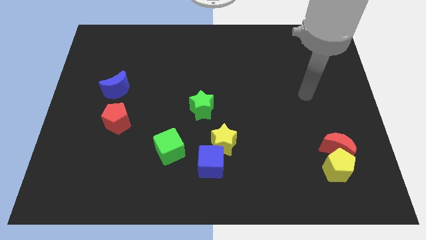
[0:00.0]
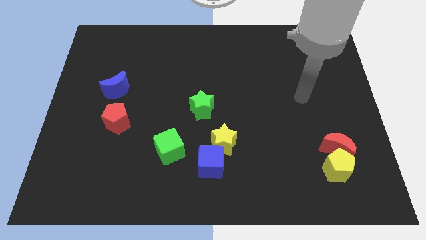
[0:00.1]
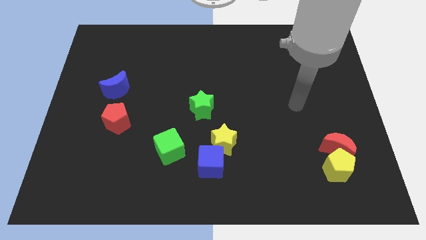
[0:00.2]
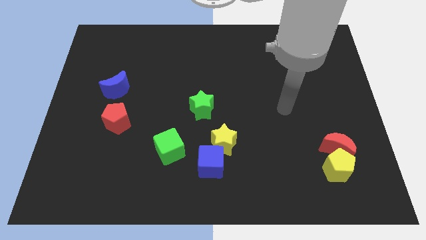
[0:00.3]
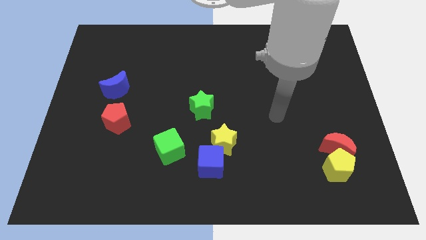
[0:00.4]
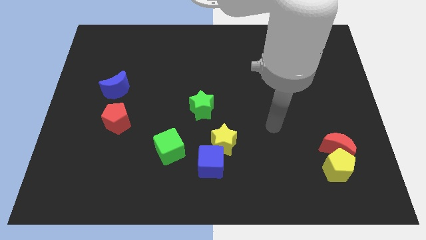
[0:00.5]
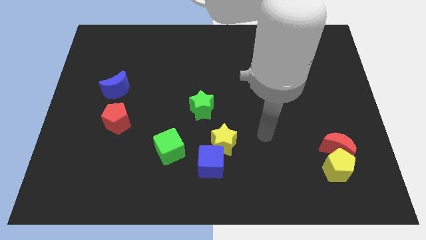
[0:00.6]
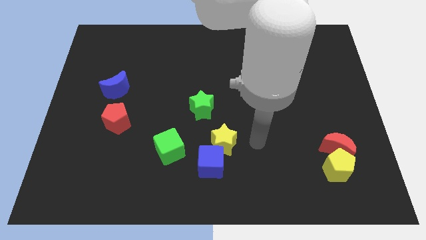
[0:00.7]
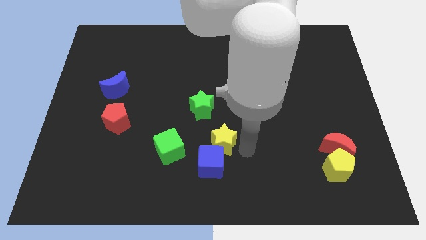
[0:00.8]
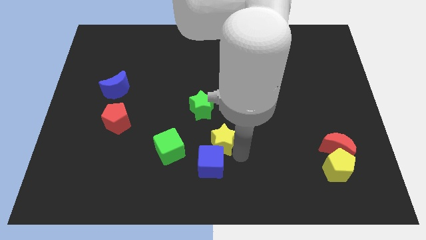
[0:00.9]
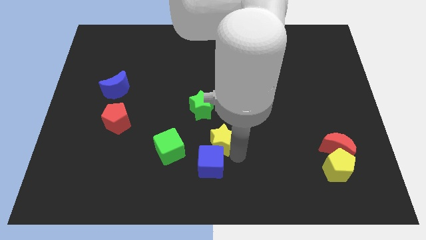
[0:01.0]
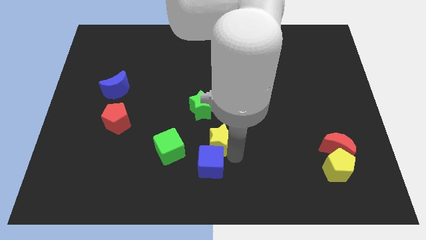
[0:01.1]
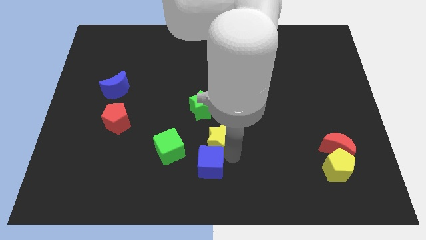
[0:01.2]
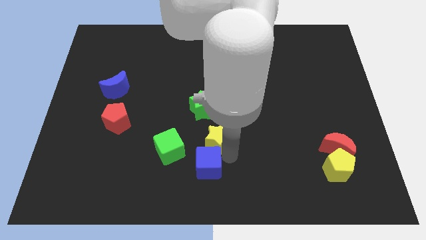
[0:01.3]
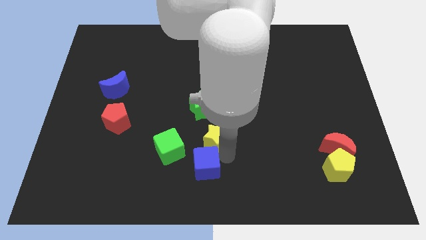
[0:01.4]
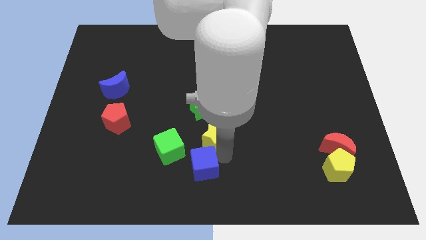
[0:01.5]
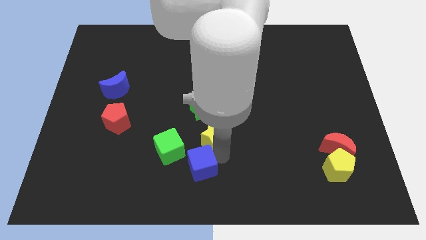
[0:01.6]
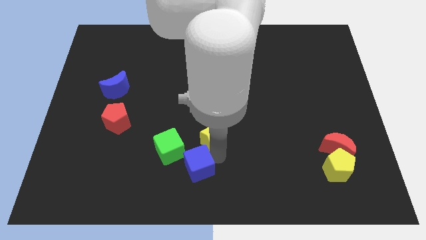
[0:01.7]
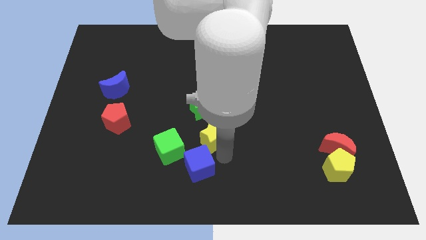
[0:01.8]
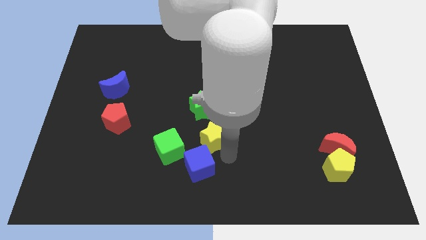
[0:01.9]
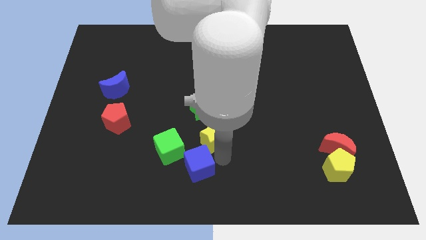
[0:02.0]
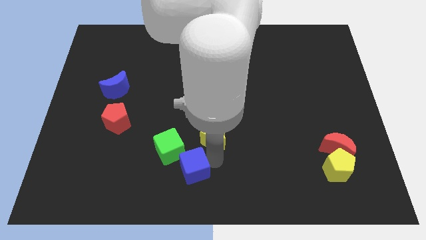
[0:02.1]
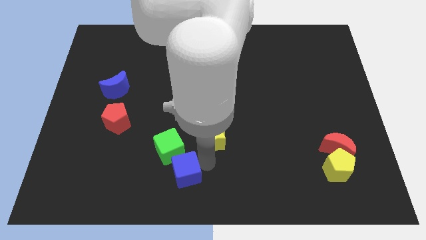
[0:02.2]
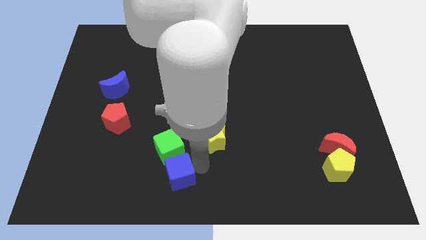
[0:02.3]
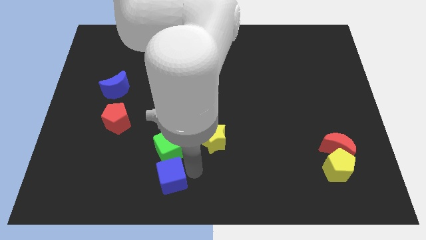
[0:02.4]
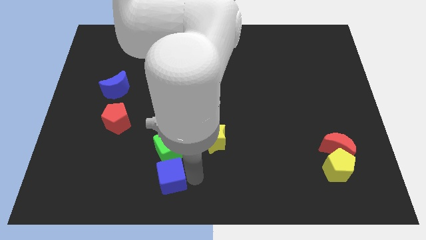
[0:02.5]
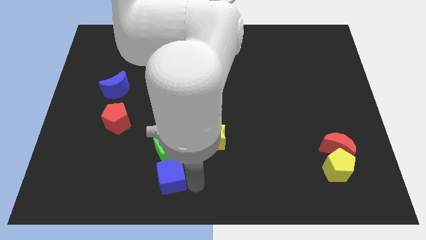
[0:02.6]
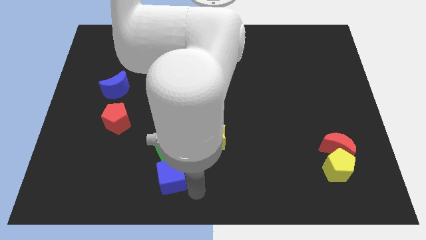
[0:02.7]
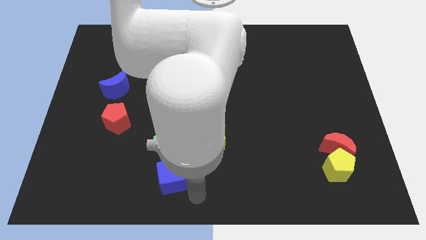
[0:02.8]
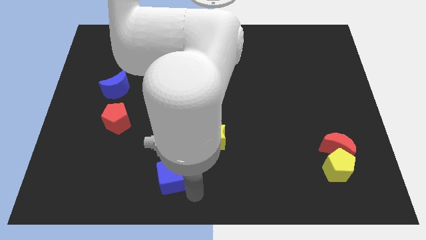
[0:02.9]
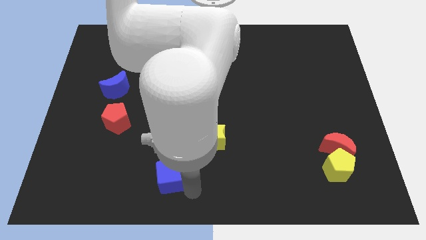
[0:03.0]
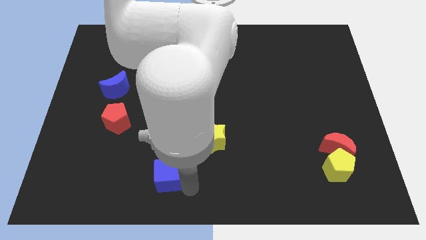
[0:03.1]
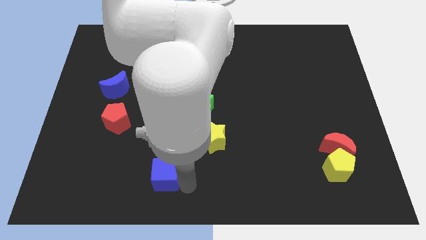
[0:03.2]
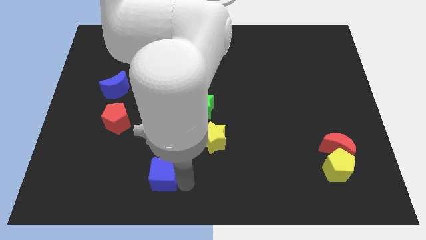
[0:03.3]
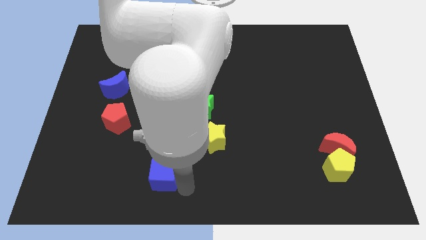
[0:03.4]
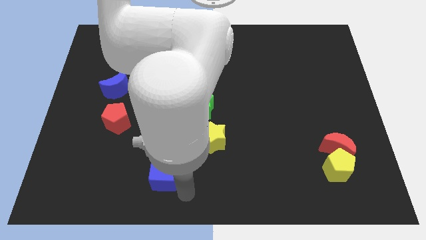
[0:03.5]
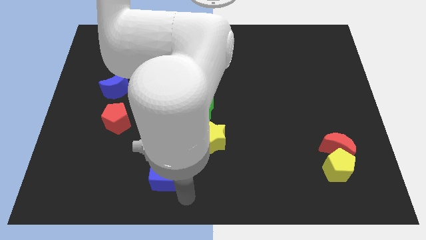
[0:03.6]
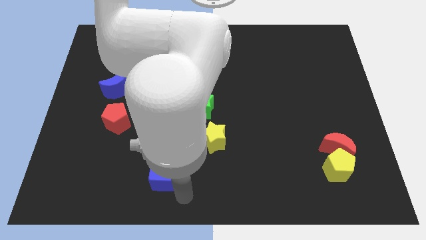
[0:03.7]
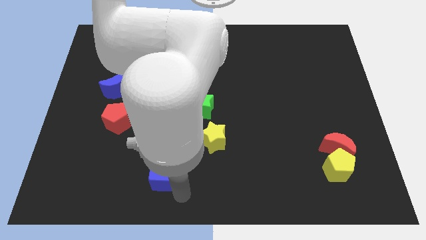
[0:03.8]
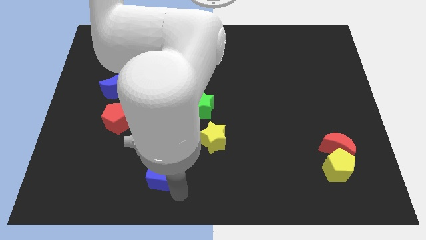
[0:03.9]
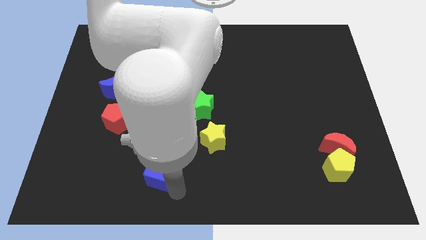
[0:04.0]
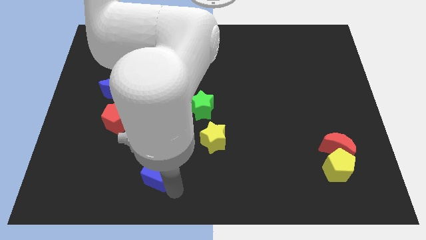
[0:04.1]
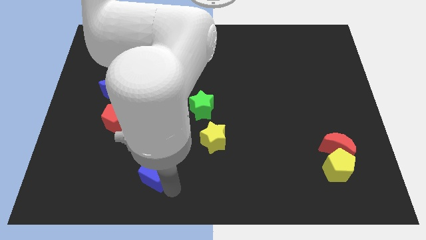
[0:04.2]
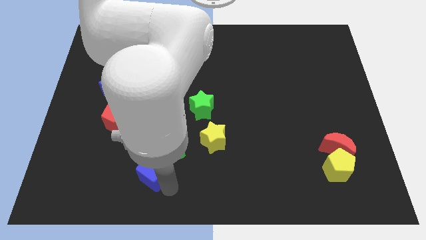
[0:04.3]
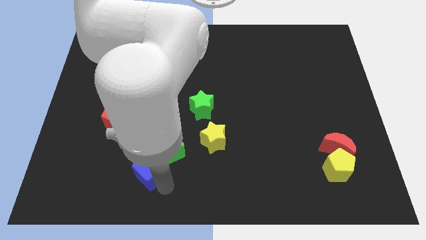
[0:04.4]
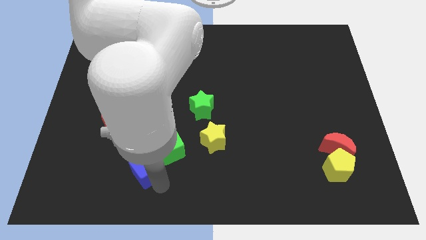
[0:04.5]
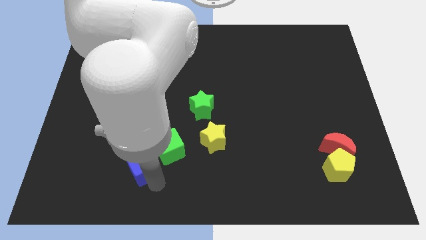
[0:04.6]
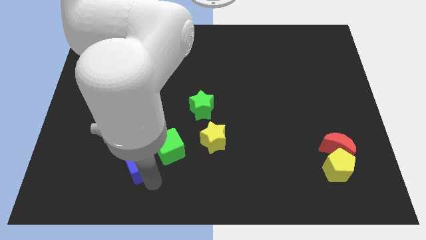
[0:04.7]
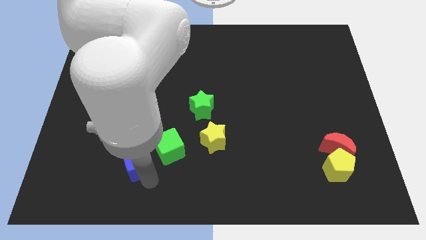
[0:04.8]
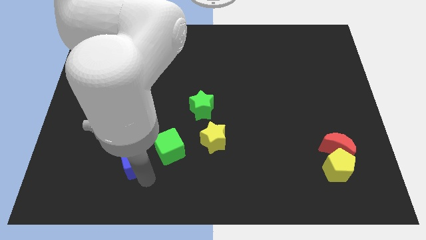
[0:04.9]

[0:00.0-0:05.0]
slide the blue cube to the bottom right side of the red pentagon

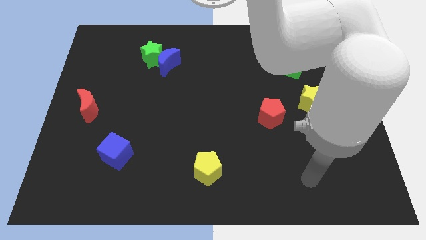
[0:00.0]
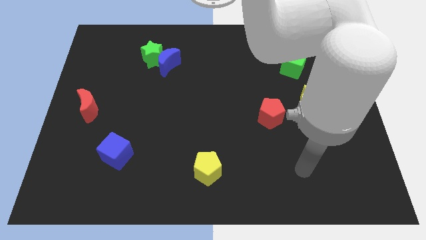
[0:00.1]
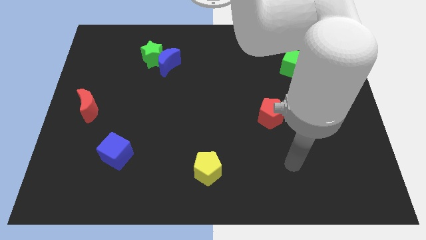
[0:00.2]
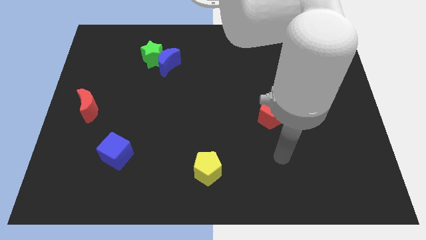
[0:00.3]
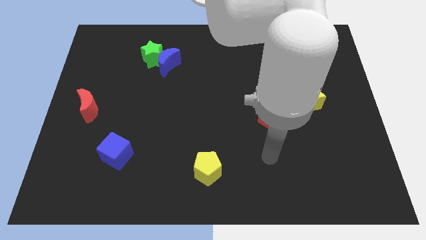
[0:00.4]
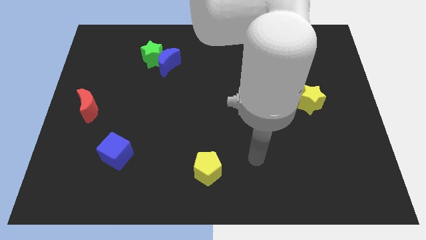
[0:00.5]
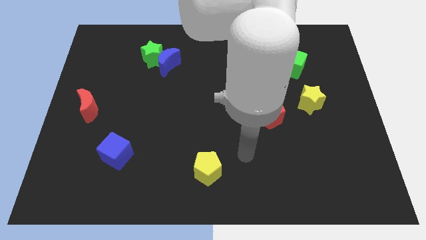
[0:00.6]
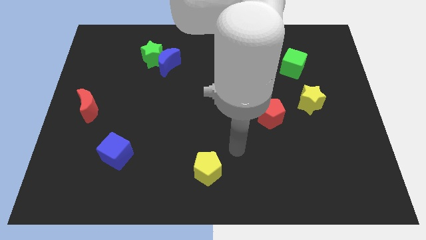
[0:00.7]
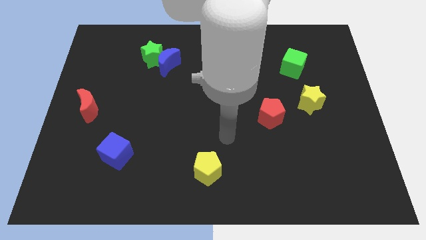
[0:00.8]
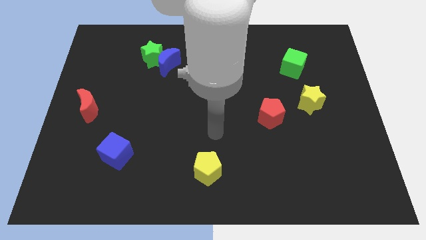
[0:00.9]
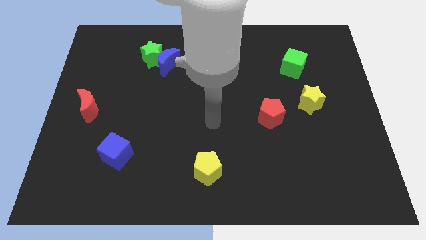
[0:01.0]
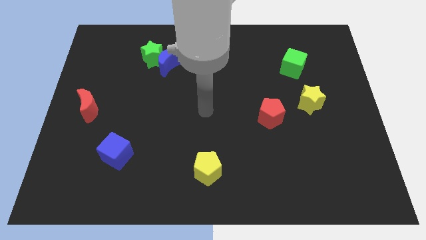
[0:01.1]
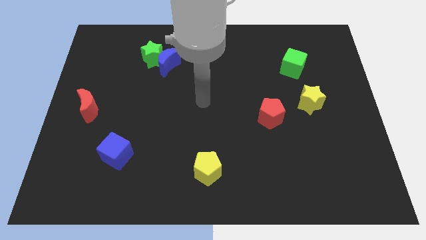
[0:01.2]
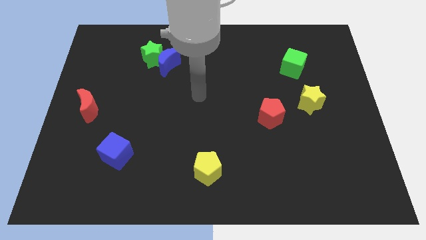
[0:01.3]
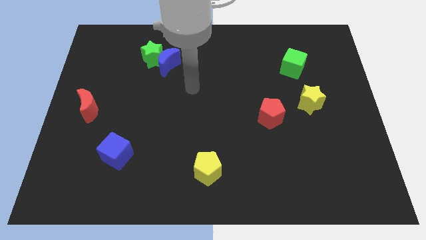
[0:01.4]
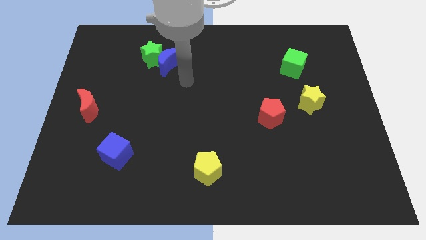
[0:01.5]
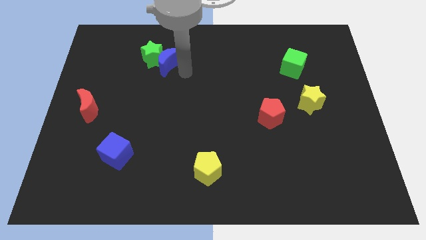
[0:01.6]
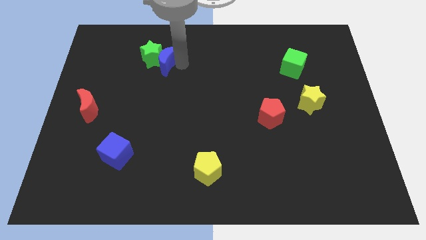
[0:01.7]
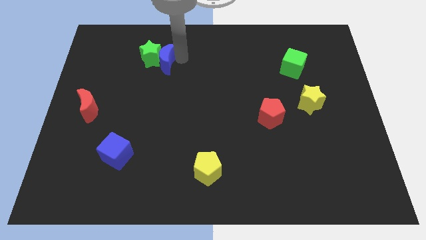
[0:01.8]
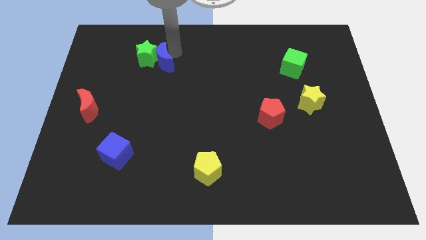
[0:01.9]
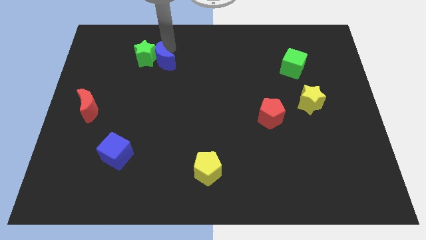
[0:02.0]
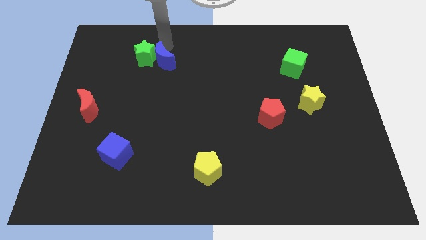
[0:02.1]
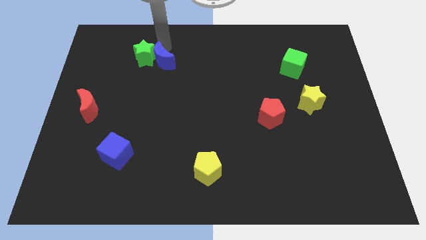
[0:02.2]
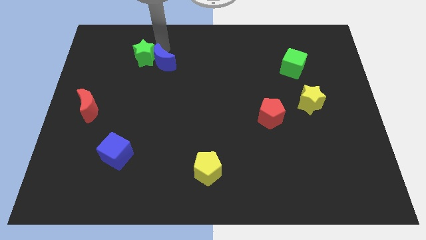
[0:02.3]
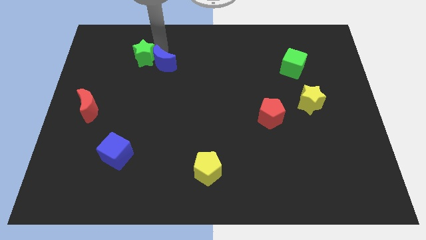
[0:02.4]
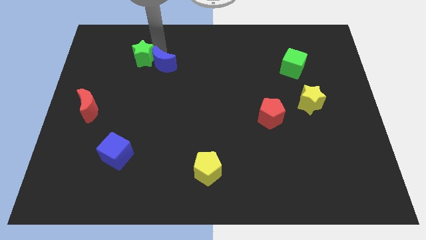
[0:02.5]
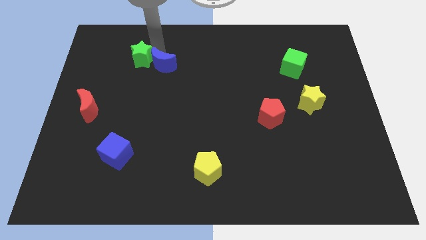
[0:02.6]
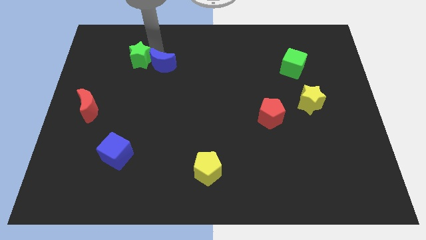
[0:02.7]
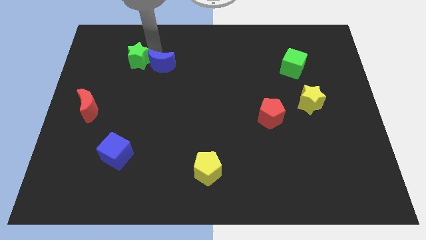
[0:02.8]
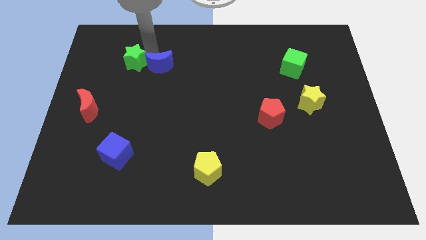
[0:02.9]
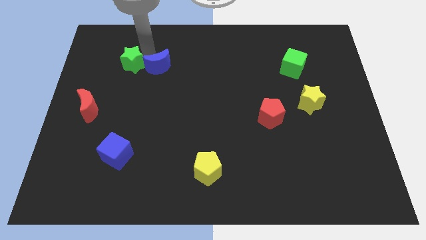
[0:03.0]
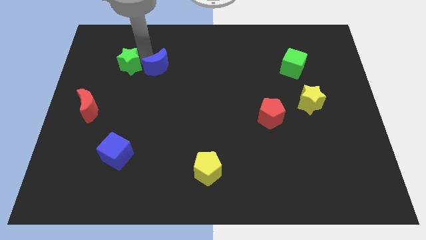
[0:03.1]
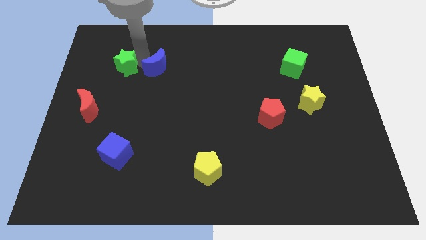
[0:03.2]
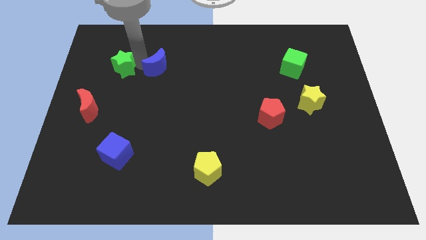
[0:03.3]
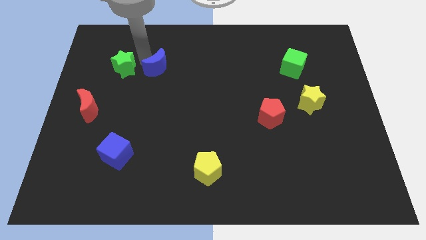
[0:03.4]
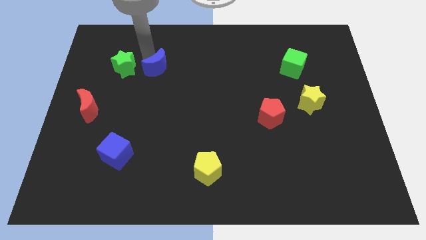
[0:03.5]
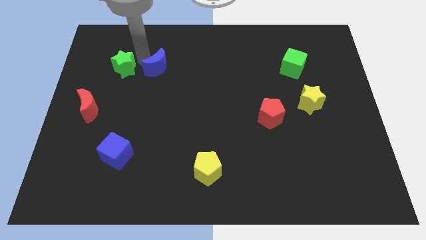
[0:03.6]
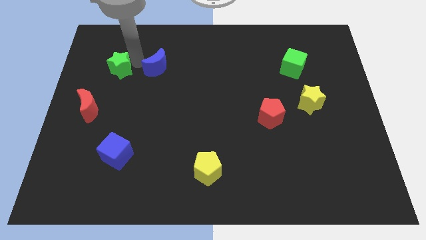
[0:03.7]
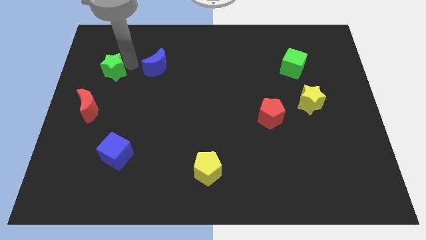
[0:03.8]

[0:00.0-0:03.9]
slide the green star to the top of the red moon
